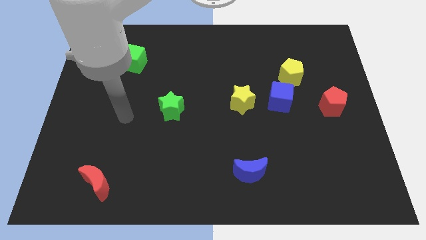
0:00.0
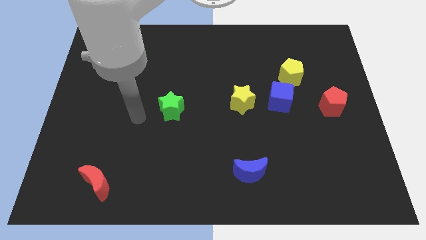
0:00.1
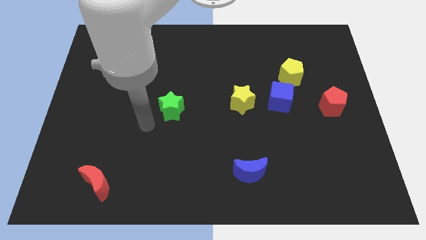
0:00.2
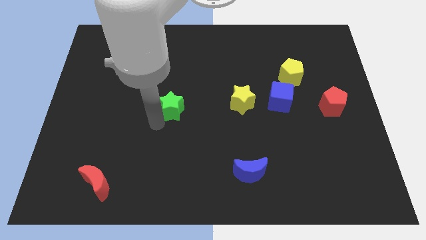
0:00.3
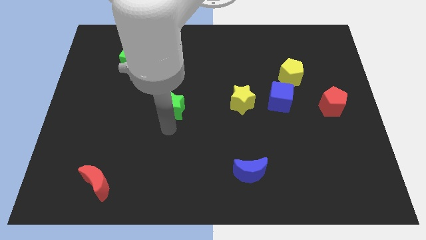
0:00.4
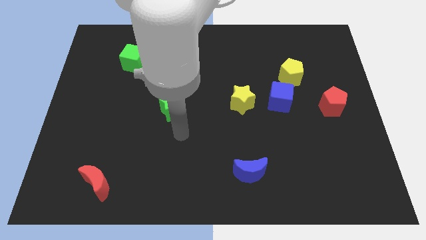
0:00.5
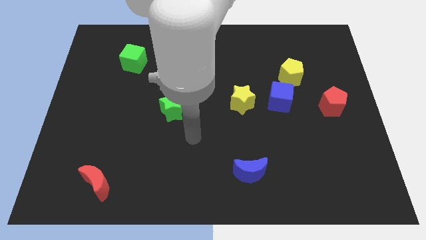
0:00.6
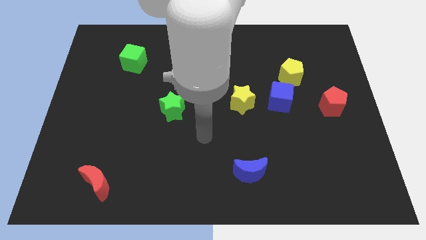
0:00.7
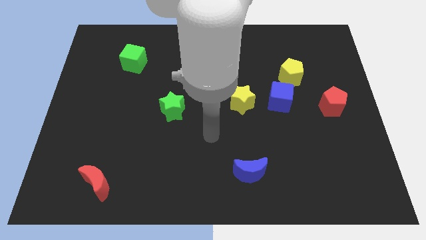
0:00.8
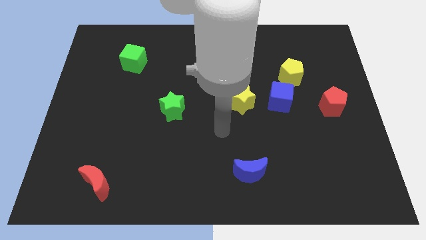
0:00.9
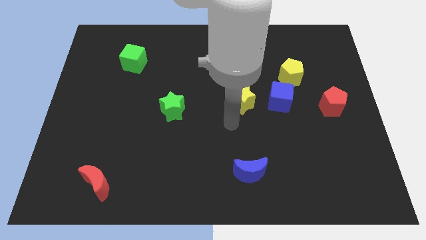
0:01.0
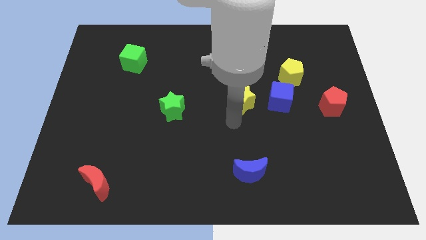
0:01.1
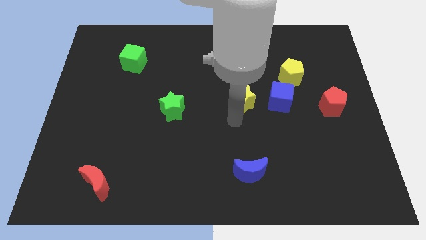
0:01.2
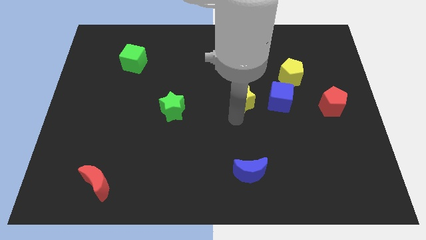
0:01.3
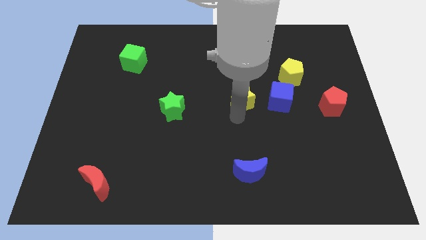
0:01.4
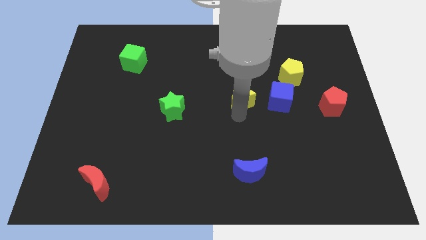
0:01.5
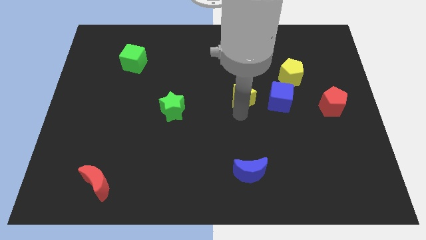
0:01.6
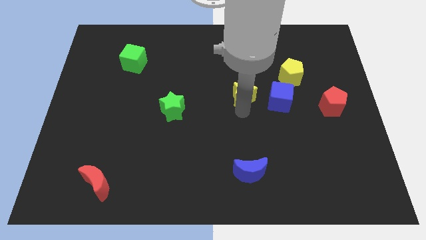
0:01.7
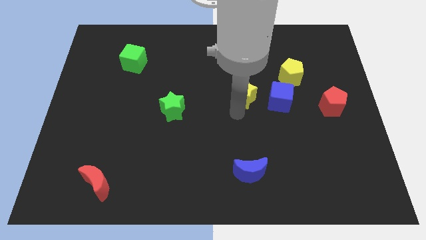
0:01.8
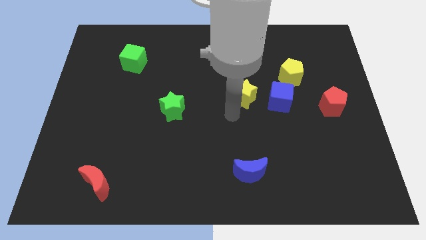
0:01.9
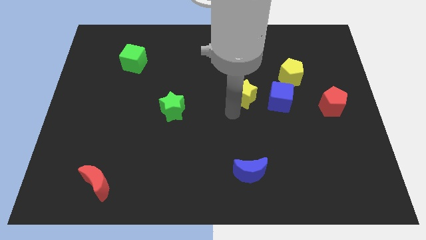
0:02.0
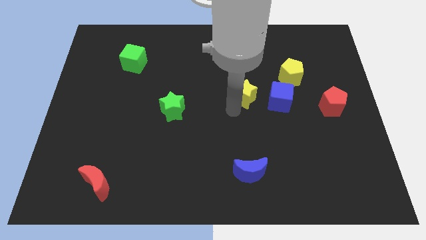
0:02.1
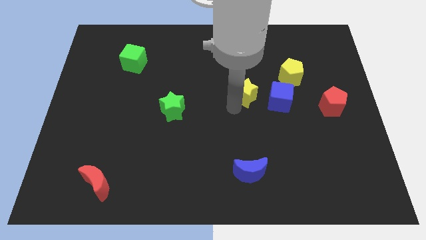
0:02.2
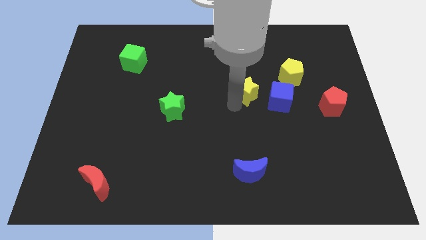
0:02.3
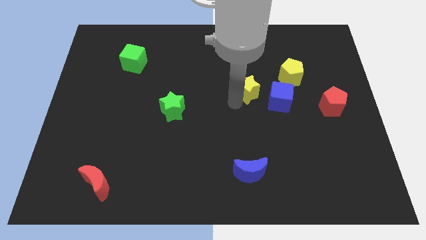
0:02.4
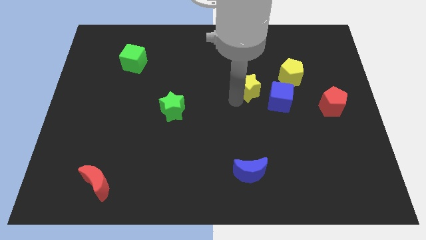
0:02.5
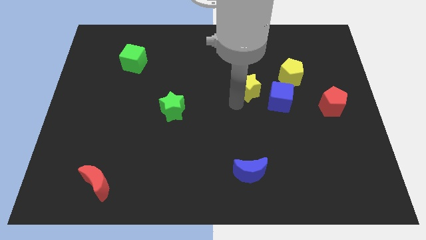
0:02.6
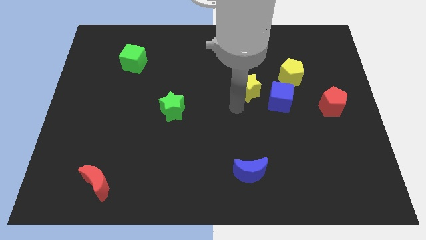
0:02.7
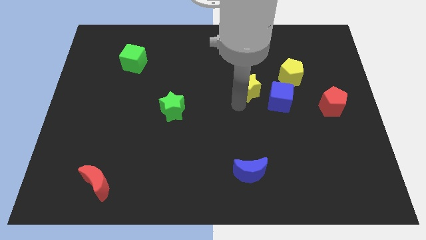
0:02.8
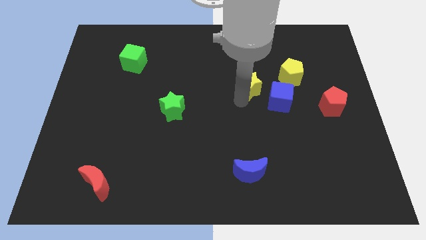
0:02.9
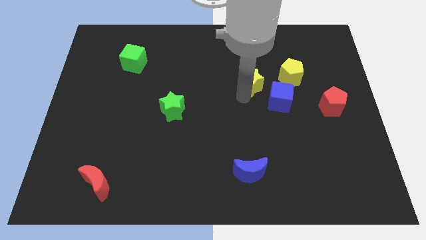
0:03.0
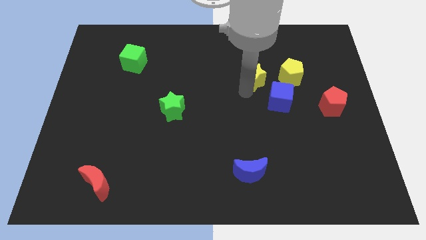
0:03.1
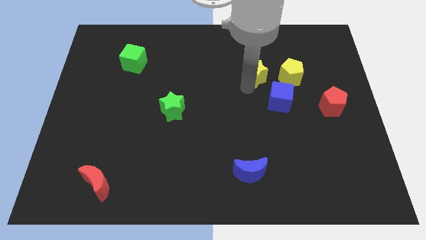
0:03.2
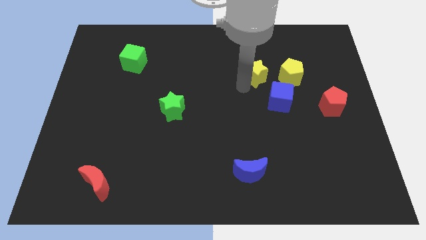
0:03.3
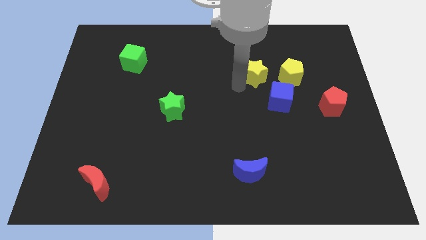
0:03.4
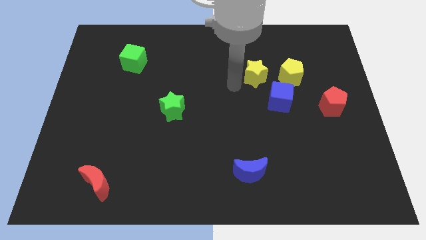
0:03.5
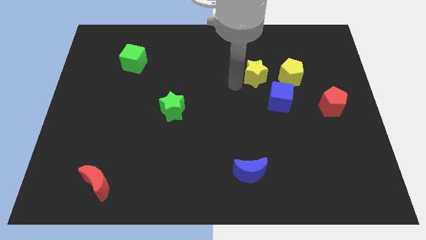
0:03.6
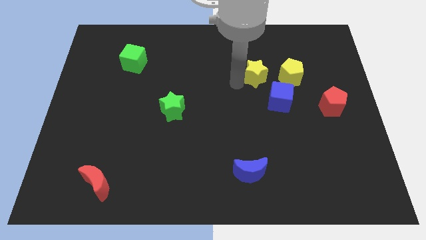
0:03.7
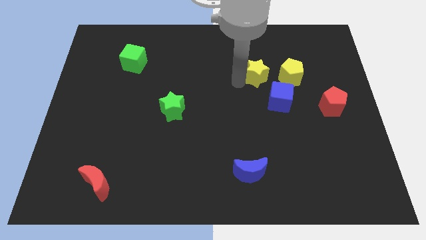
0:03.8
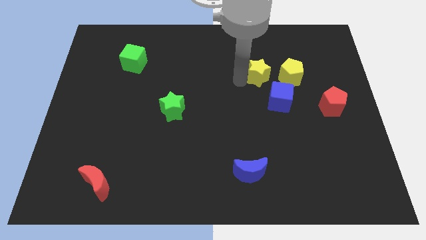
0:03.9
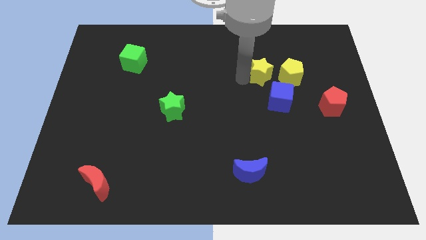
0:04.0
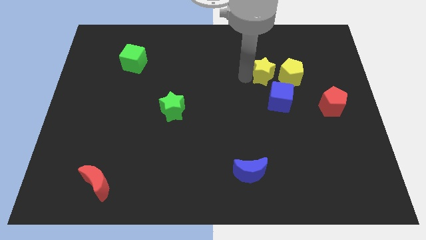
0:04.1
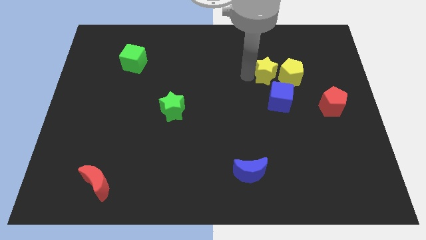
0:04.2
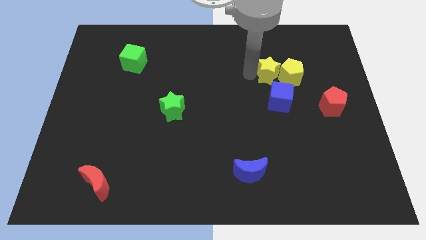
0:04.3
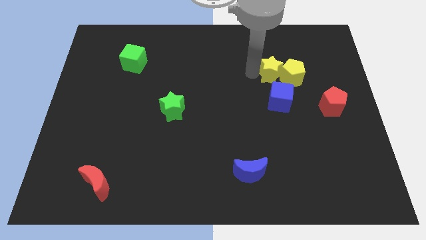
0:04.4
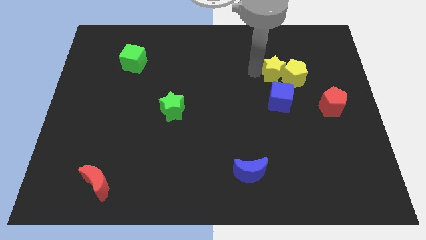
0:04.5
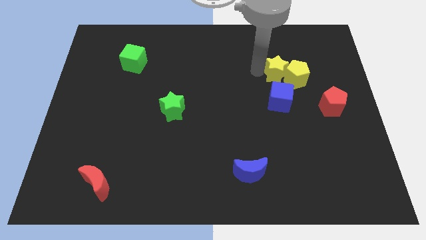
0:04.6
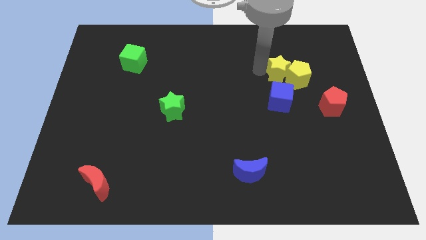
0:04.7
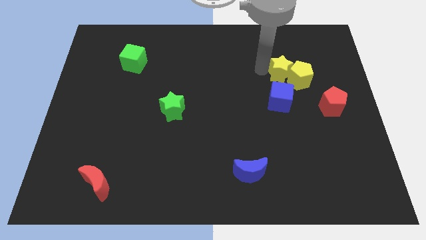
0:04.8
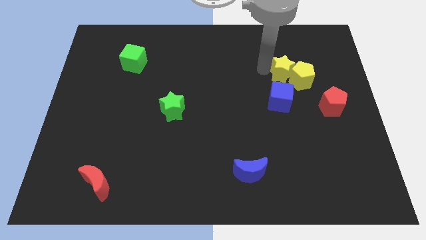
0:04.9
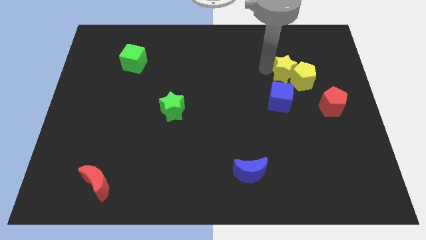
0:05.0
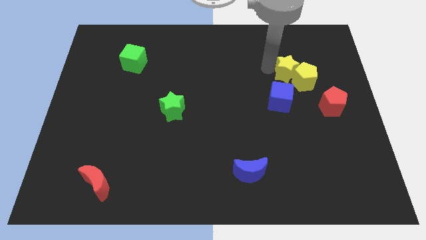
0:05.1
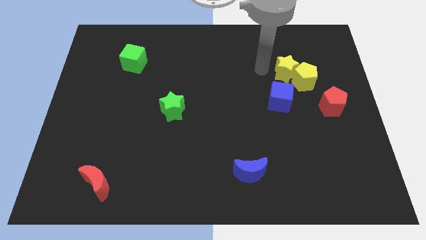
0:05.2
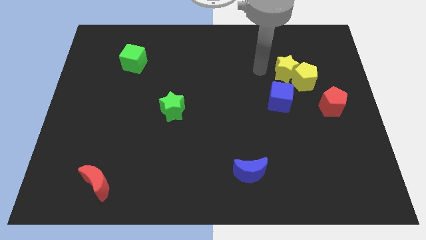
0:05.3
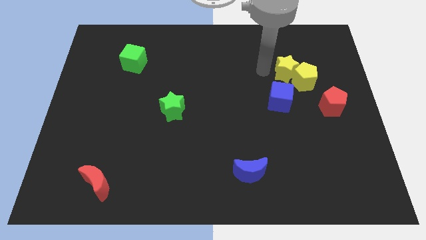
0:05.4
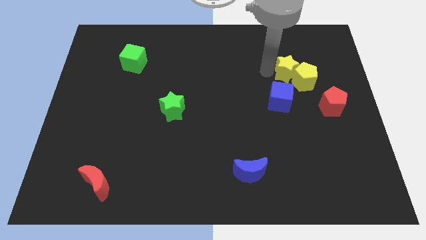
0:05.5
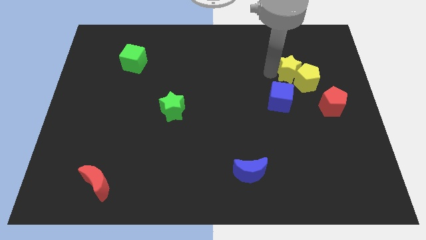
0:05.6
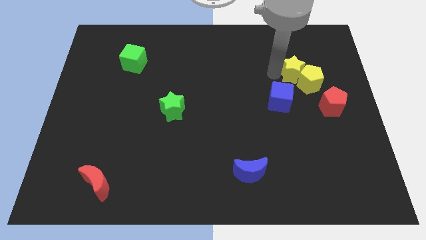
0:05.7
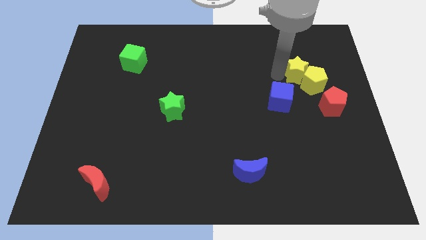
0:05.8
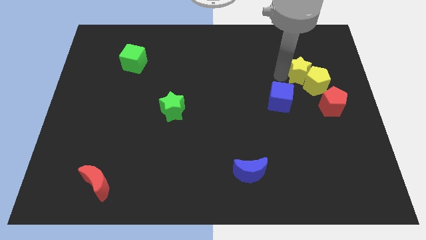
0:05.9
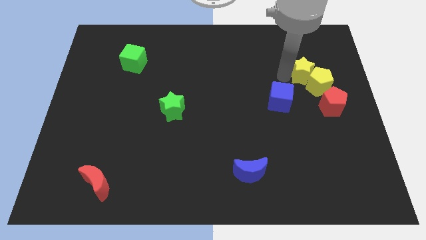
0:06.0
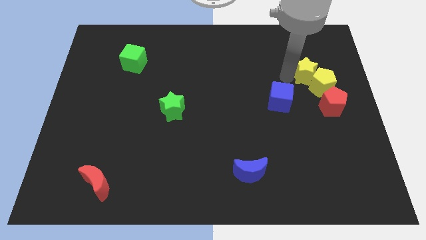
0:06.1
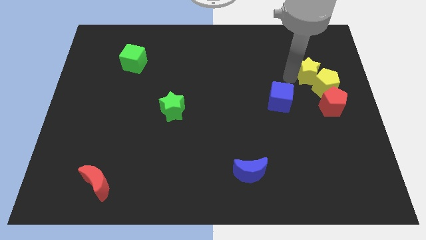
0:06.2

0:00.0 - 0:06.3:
move the yellow star above the red pentagon

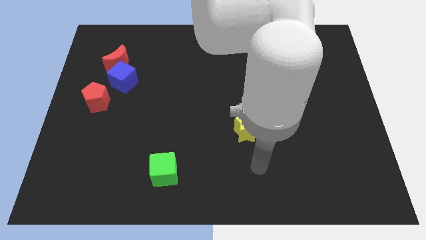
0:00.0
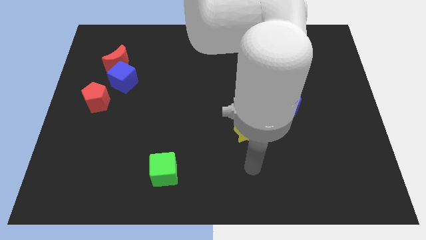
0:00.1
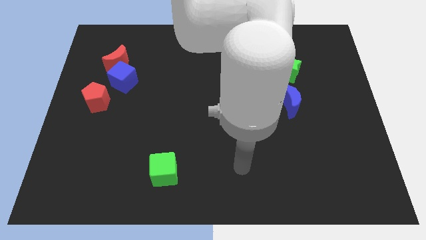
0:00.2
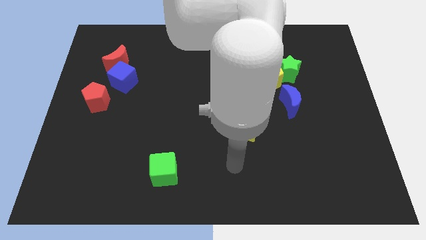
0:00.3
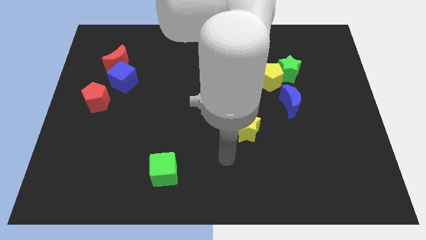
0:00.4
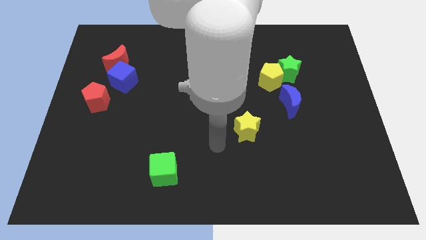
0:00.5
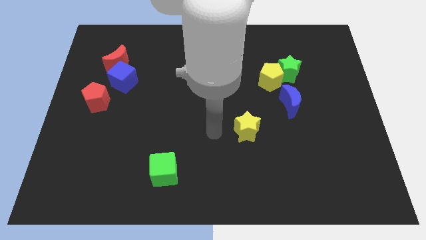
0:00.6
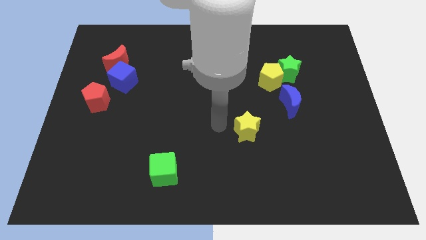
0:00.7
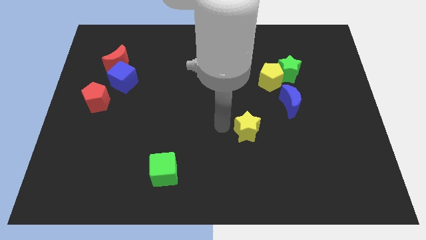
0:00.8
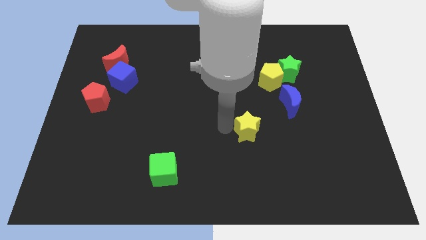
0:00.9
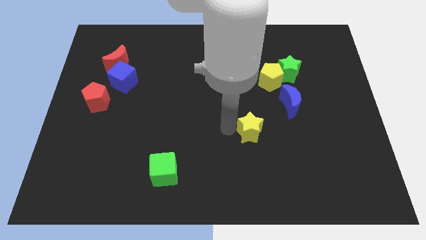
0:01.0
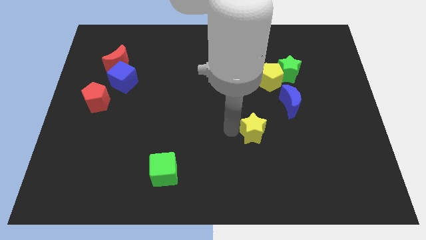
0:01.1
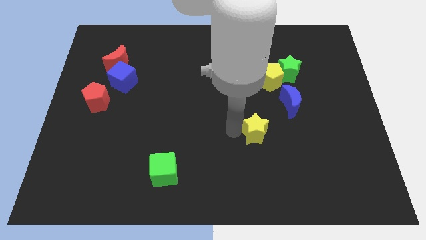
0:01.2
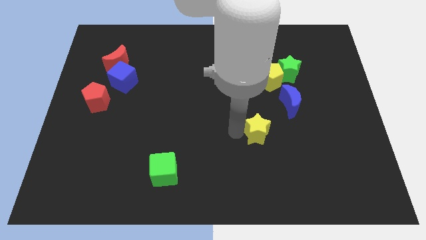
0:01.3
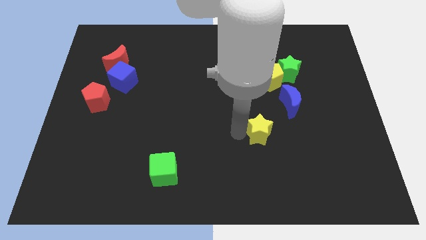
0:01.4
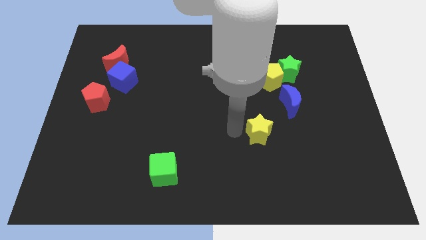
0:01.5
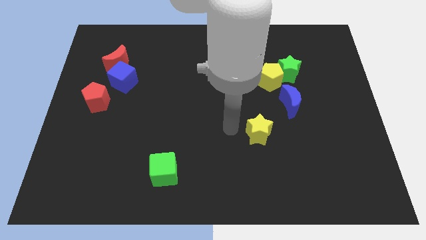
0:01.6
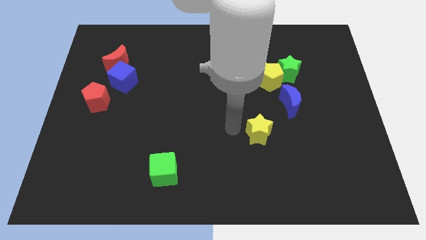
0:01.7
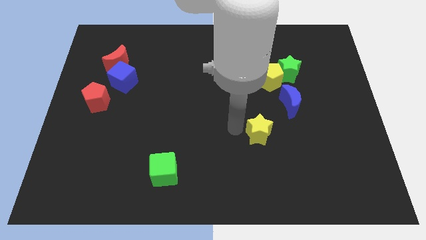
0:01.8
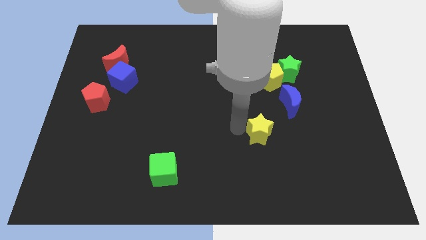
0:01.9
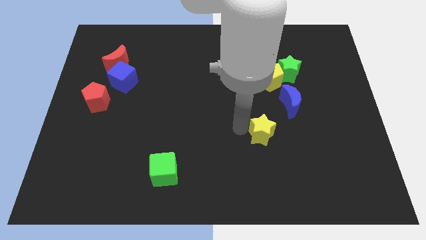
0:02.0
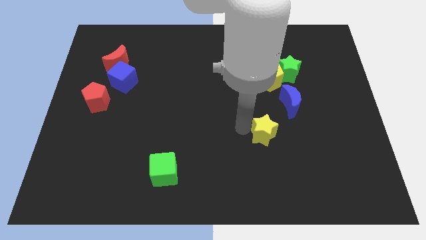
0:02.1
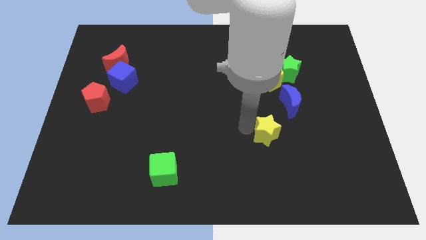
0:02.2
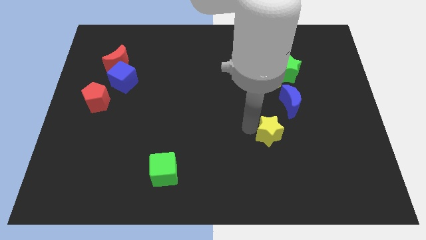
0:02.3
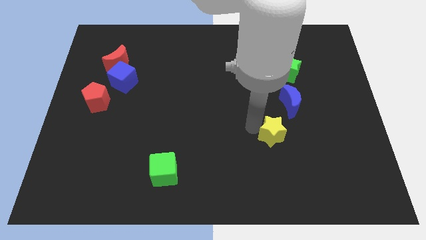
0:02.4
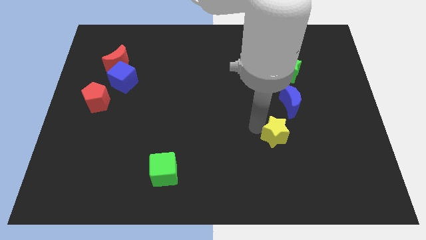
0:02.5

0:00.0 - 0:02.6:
put the yellow star below the blue moon
